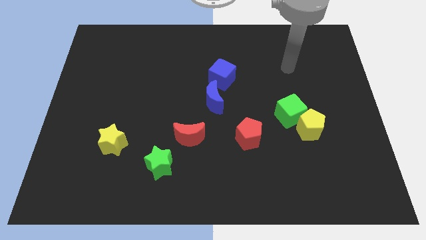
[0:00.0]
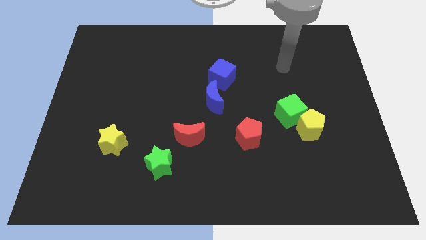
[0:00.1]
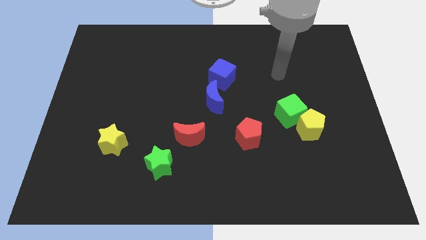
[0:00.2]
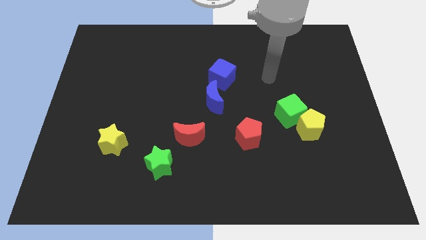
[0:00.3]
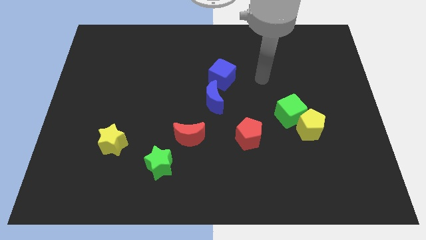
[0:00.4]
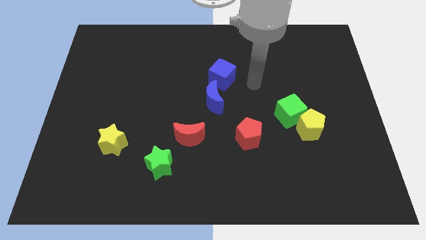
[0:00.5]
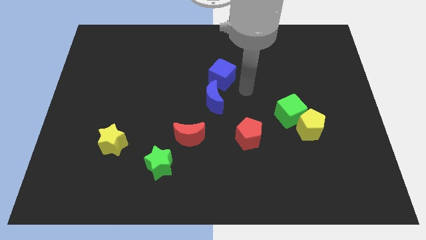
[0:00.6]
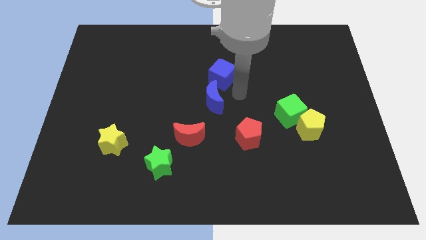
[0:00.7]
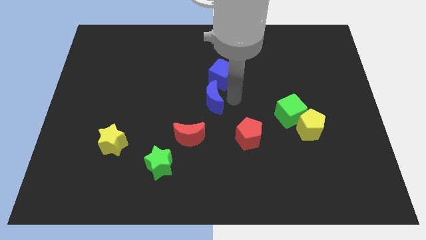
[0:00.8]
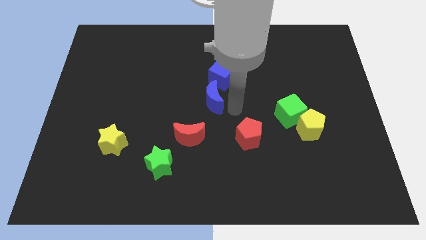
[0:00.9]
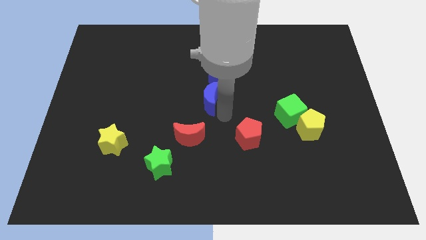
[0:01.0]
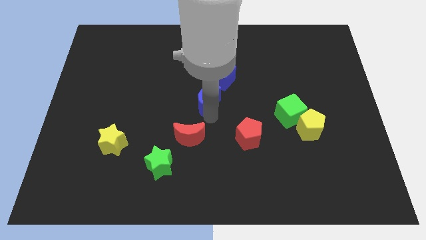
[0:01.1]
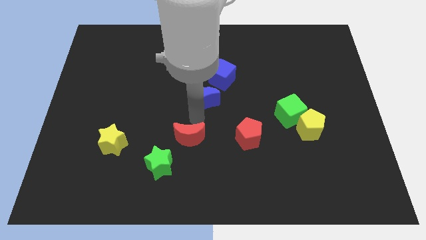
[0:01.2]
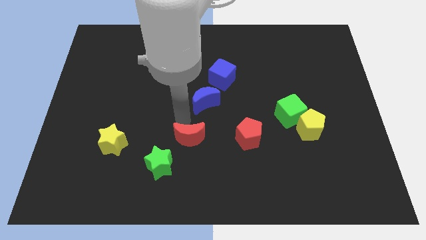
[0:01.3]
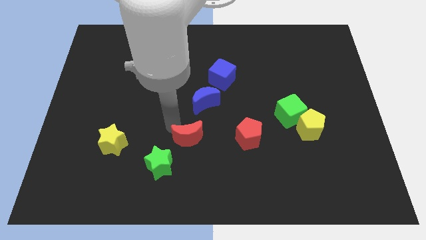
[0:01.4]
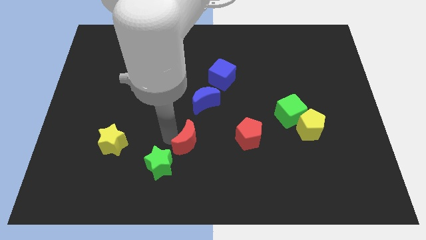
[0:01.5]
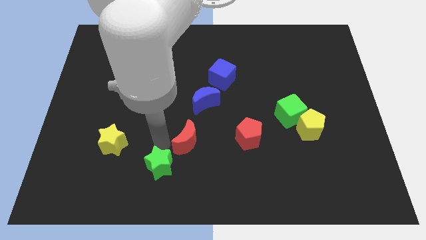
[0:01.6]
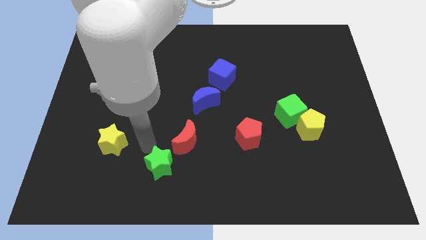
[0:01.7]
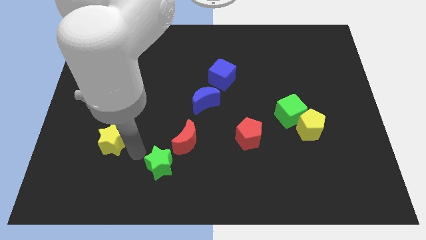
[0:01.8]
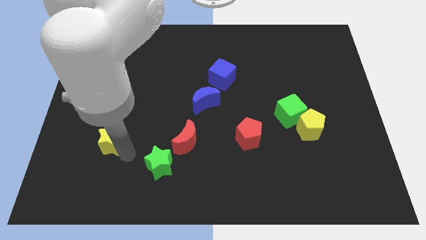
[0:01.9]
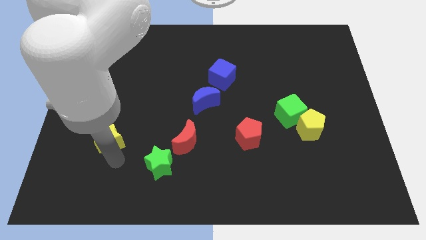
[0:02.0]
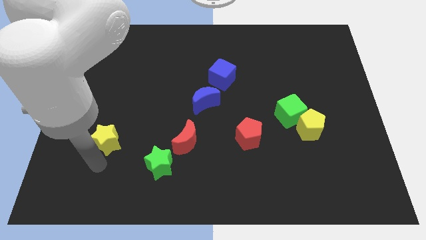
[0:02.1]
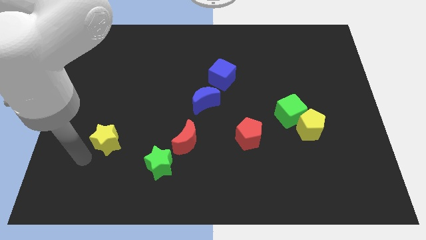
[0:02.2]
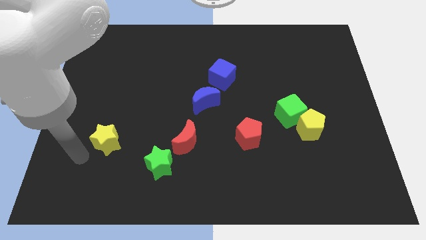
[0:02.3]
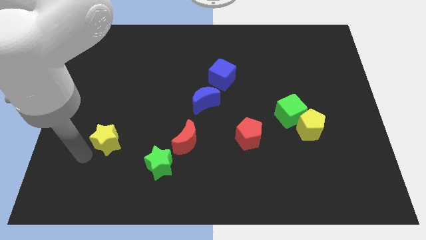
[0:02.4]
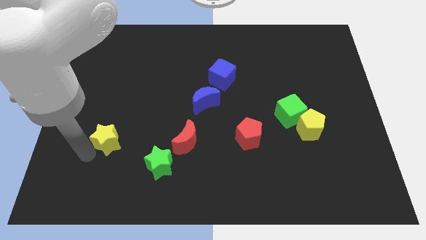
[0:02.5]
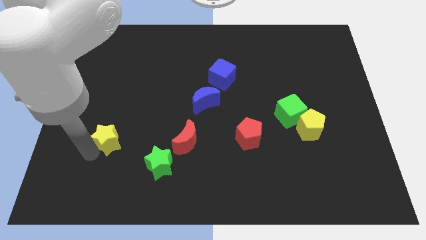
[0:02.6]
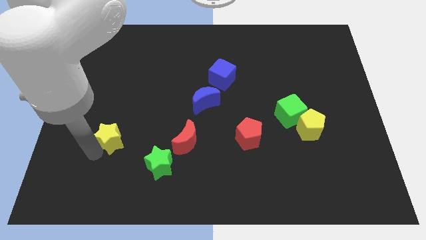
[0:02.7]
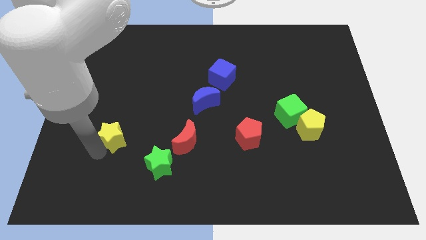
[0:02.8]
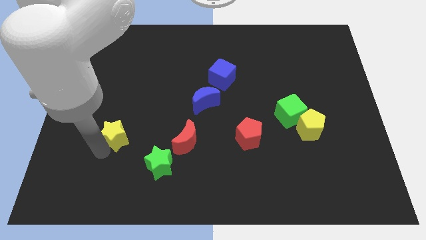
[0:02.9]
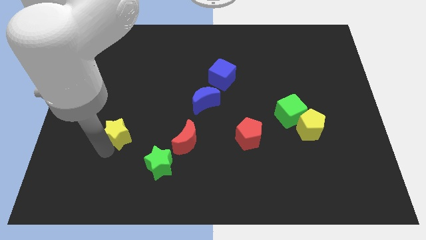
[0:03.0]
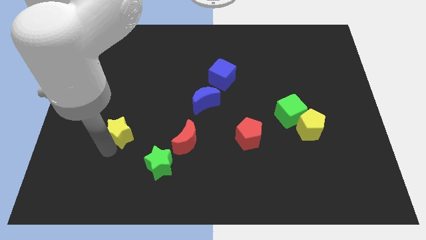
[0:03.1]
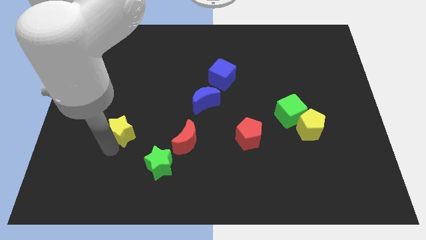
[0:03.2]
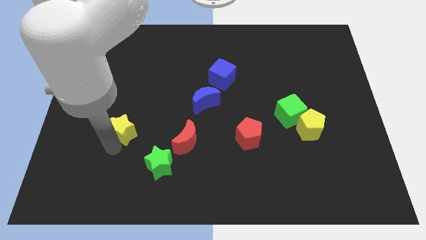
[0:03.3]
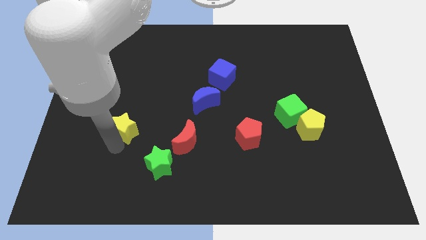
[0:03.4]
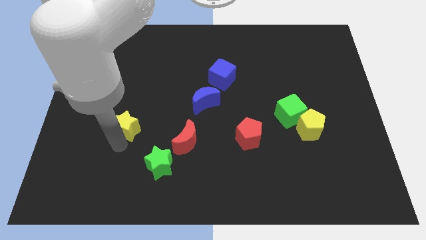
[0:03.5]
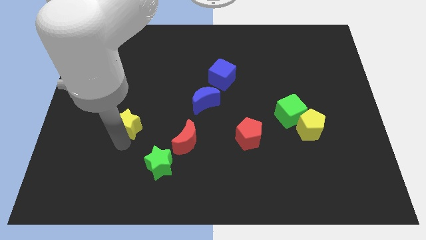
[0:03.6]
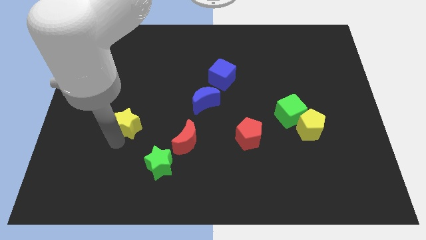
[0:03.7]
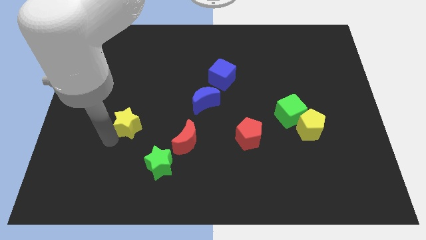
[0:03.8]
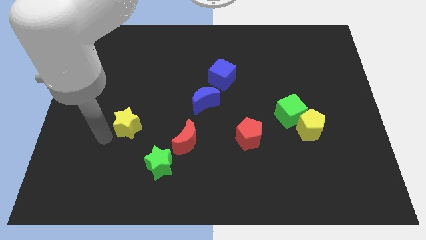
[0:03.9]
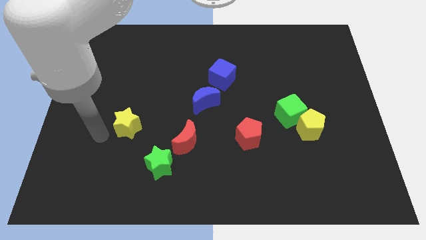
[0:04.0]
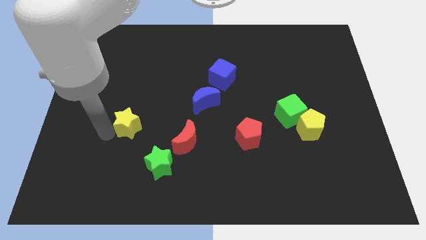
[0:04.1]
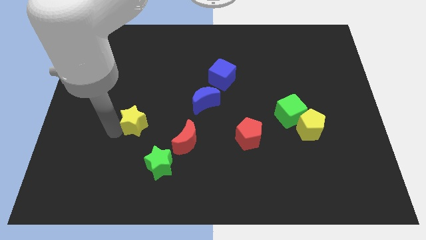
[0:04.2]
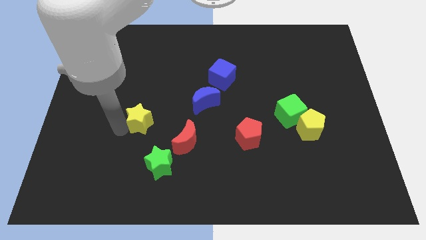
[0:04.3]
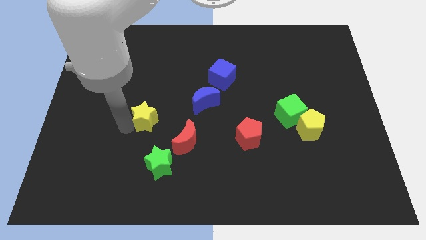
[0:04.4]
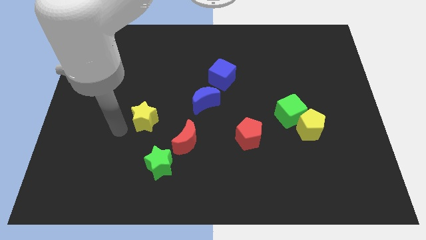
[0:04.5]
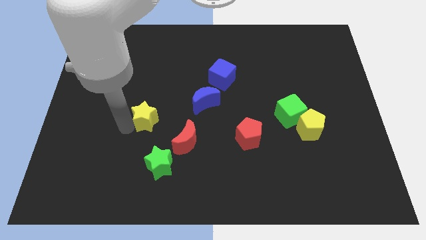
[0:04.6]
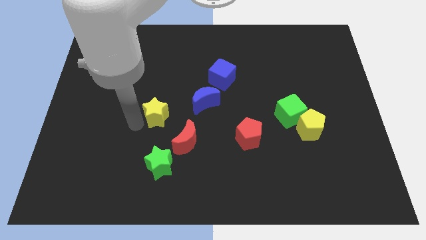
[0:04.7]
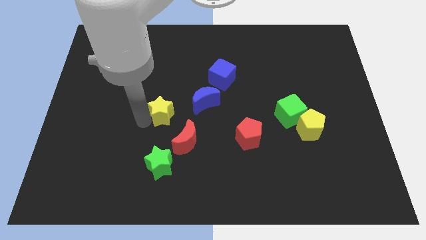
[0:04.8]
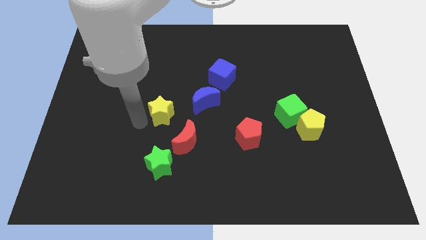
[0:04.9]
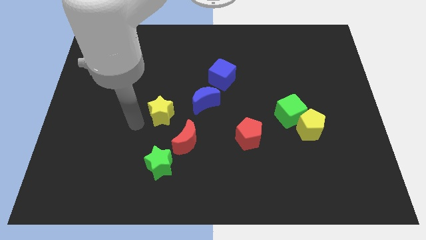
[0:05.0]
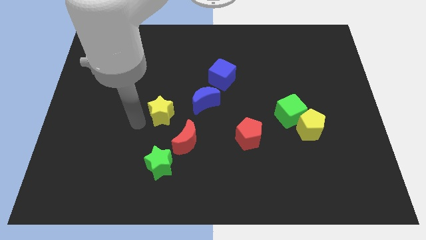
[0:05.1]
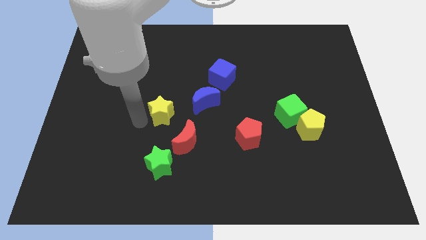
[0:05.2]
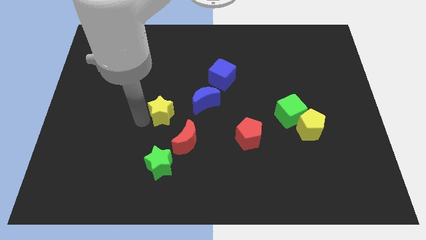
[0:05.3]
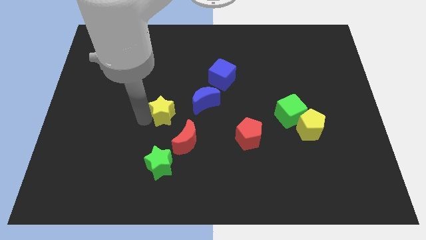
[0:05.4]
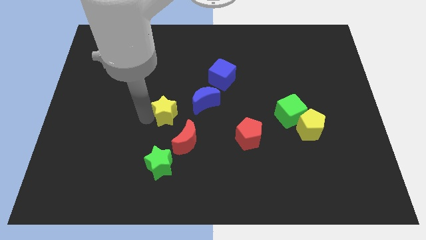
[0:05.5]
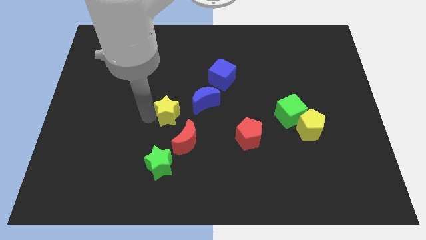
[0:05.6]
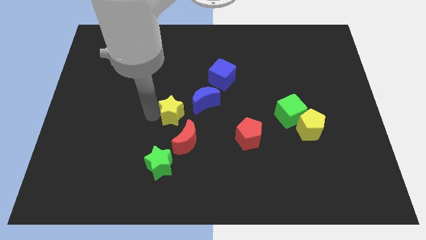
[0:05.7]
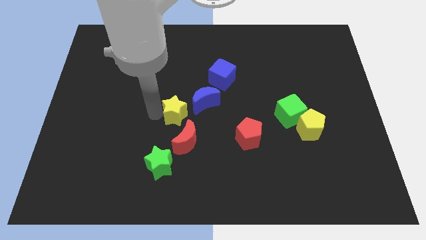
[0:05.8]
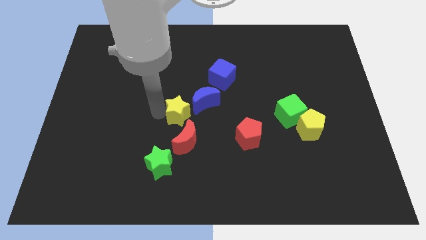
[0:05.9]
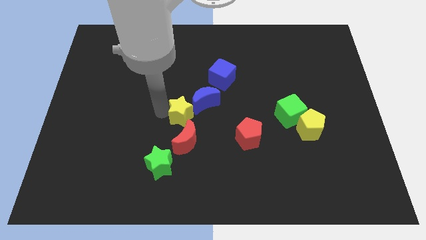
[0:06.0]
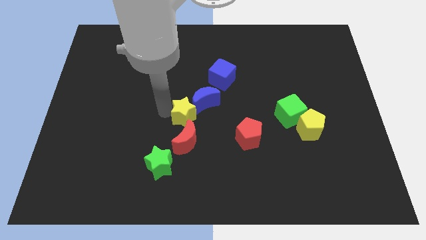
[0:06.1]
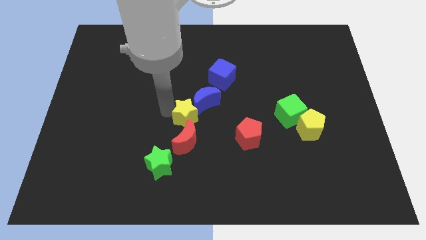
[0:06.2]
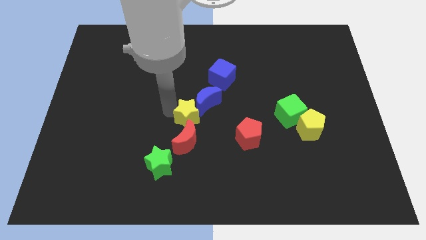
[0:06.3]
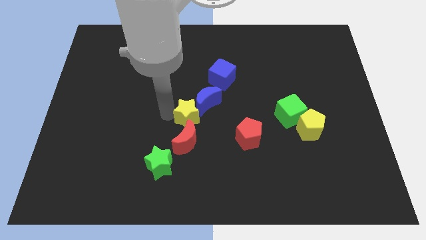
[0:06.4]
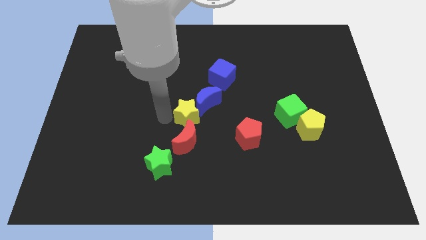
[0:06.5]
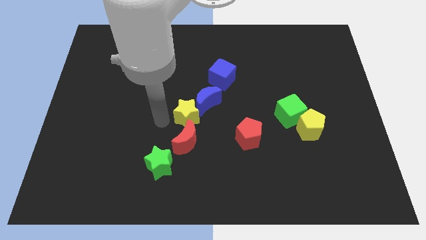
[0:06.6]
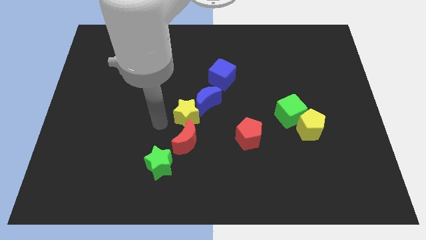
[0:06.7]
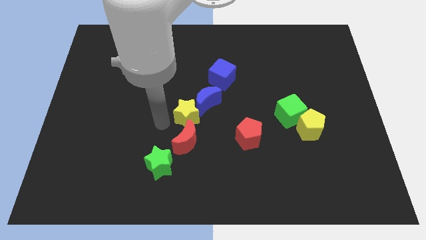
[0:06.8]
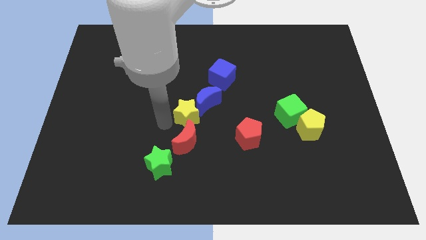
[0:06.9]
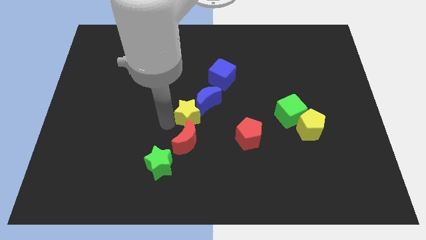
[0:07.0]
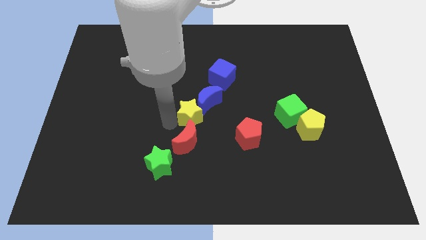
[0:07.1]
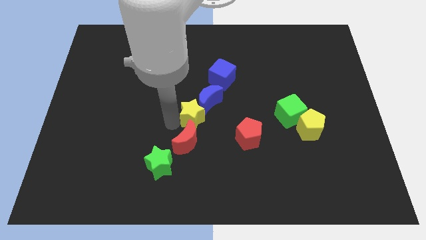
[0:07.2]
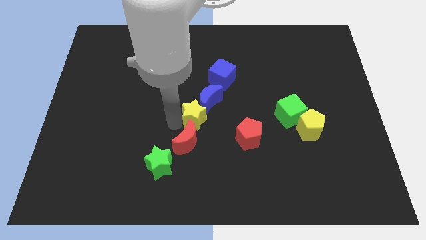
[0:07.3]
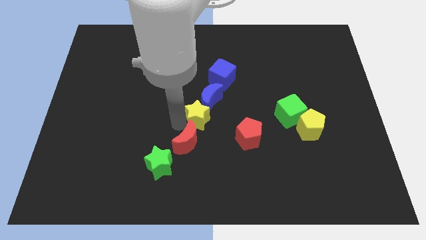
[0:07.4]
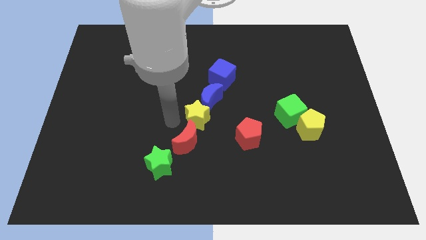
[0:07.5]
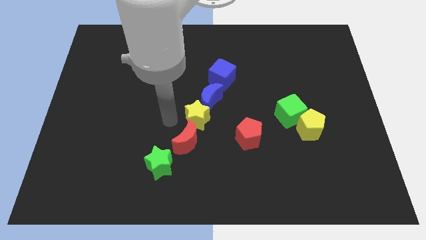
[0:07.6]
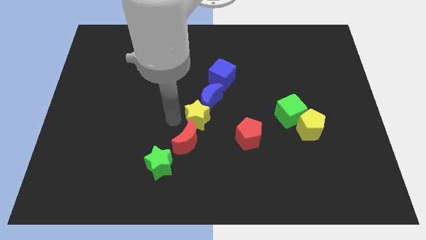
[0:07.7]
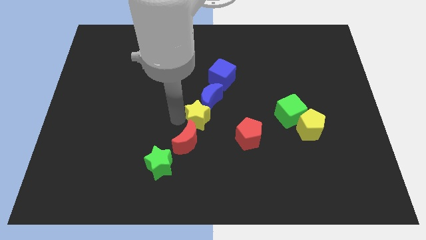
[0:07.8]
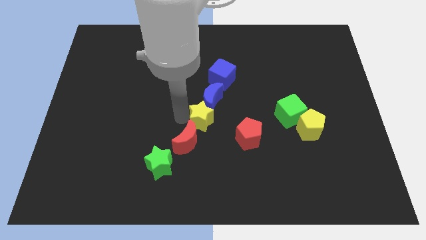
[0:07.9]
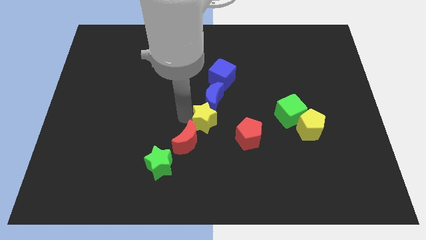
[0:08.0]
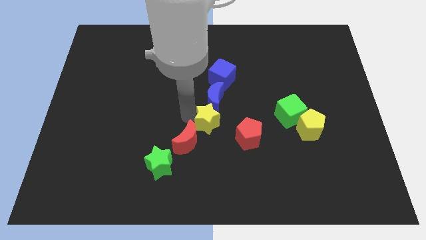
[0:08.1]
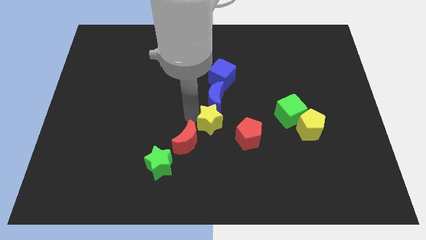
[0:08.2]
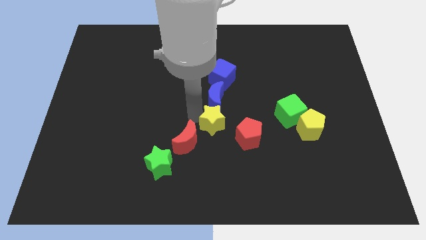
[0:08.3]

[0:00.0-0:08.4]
push the yellow star to the bottom right of the blue moon
